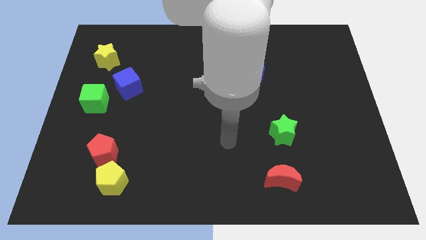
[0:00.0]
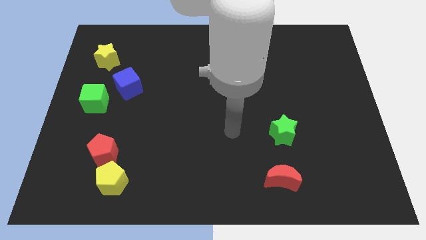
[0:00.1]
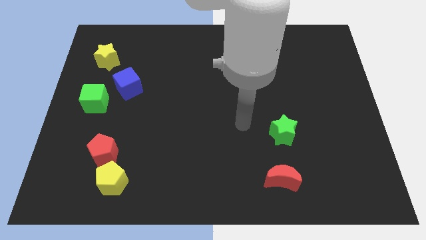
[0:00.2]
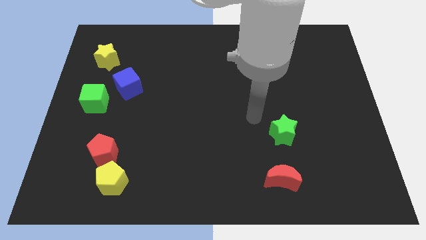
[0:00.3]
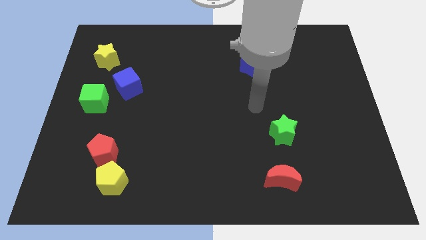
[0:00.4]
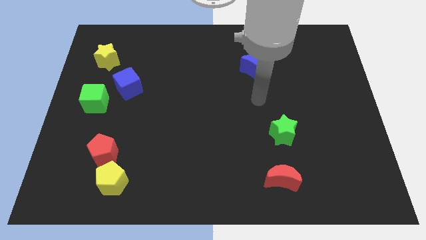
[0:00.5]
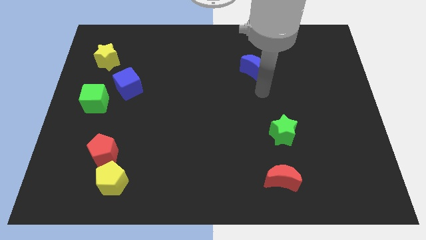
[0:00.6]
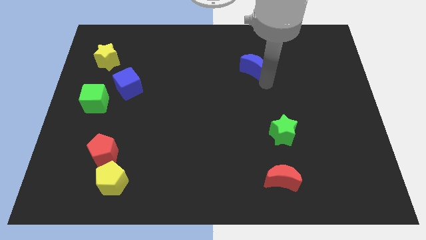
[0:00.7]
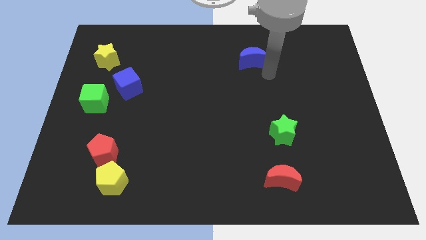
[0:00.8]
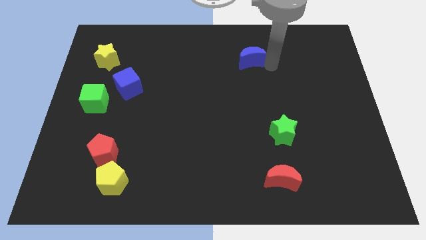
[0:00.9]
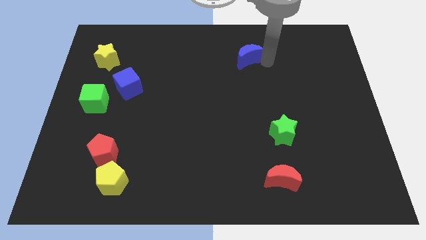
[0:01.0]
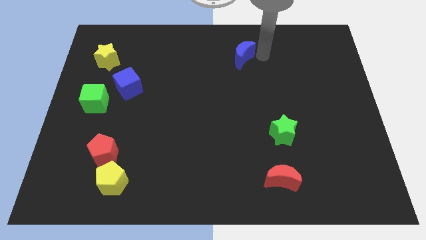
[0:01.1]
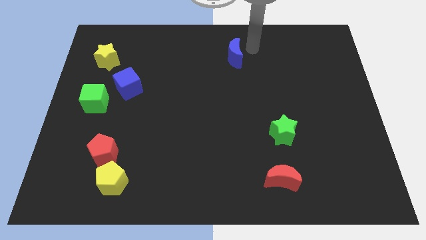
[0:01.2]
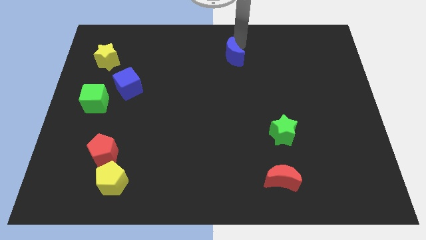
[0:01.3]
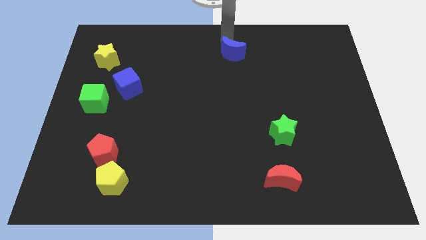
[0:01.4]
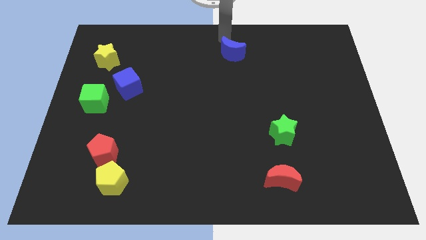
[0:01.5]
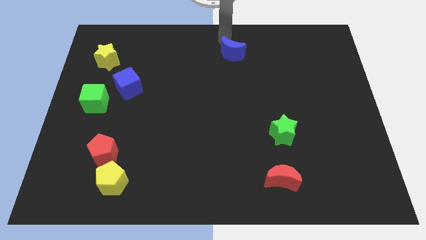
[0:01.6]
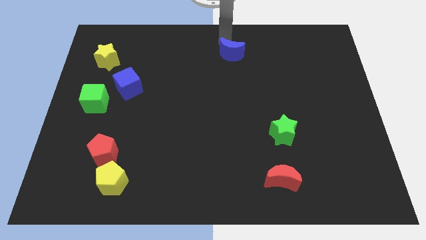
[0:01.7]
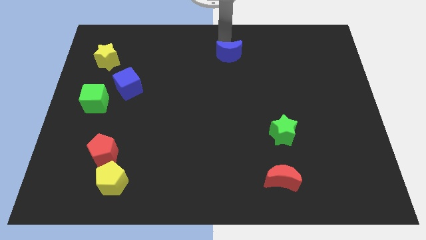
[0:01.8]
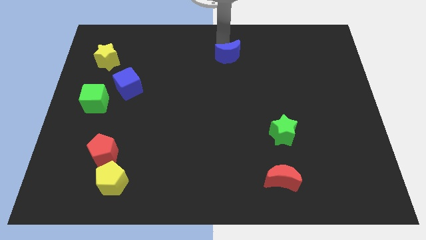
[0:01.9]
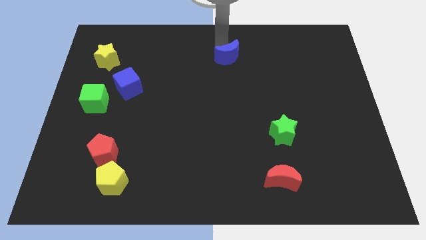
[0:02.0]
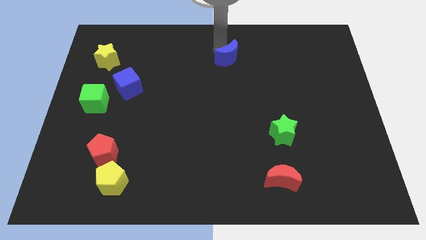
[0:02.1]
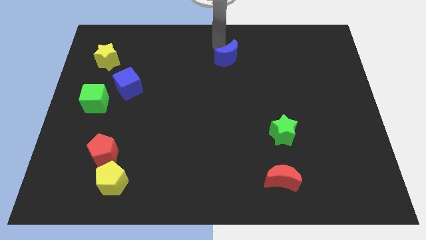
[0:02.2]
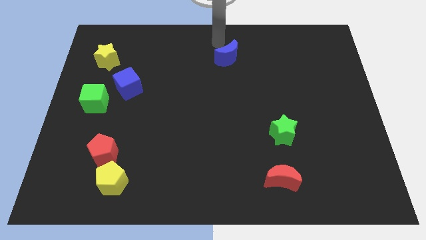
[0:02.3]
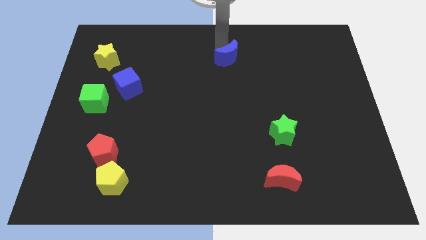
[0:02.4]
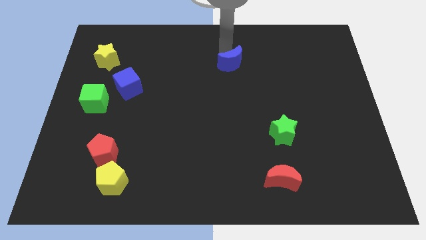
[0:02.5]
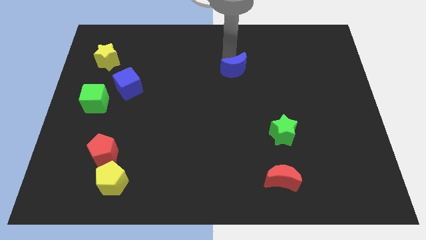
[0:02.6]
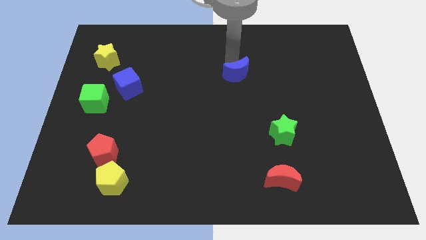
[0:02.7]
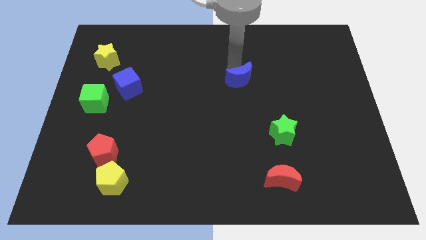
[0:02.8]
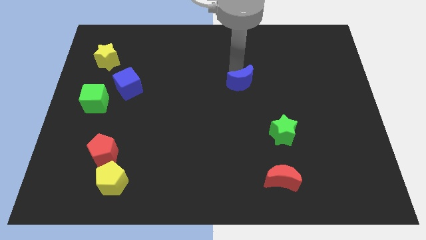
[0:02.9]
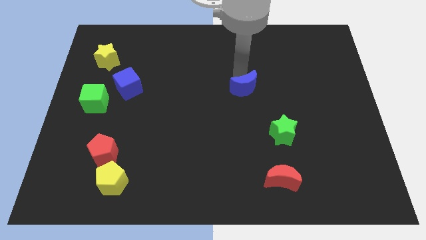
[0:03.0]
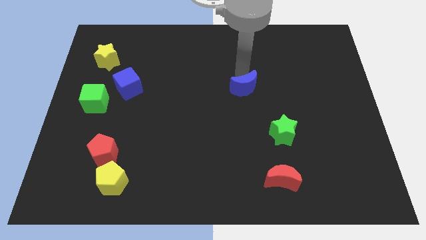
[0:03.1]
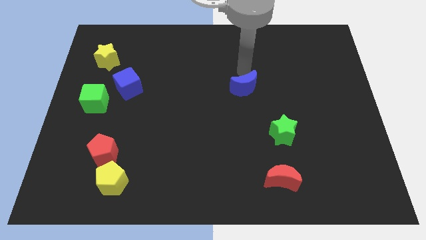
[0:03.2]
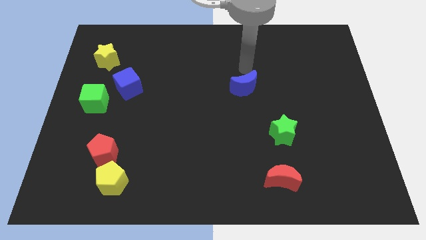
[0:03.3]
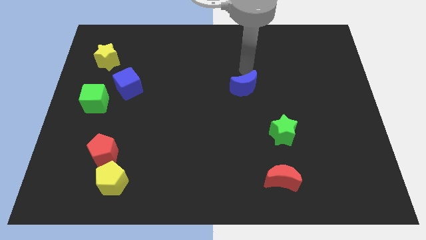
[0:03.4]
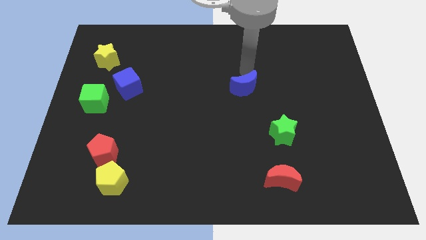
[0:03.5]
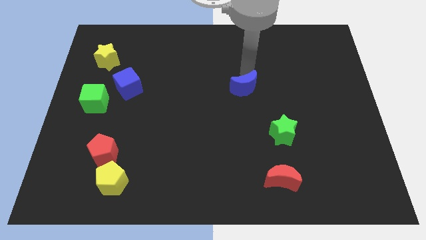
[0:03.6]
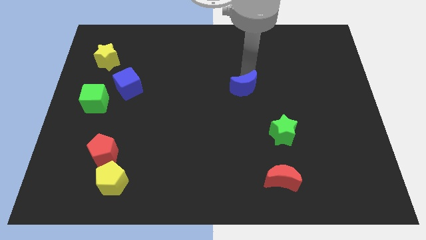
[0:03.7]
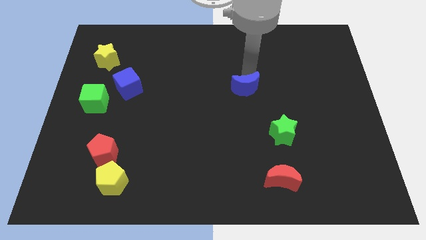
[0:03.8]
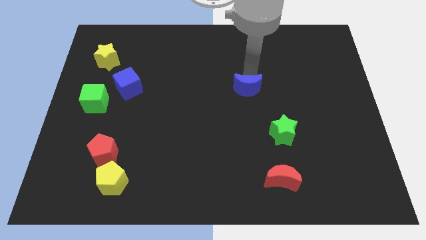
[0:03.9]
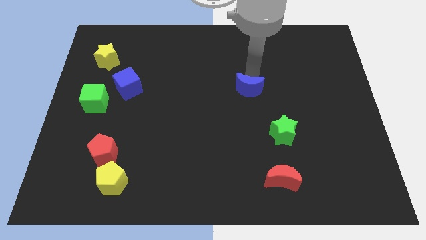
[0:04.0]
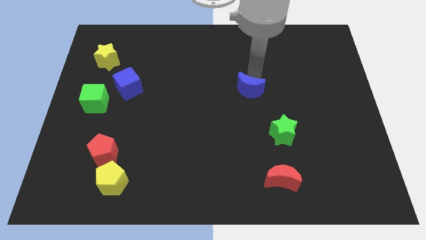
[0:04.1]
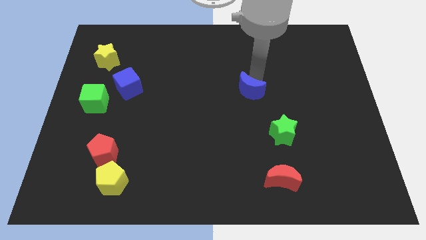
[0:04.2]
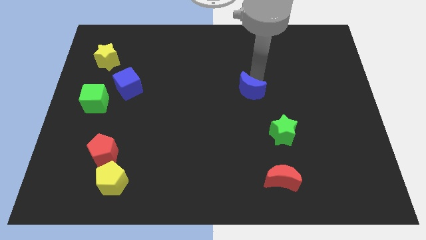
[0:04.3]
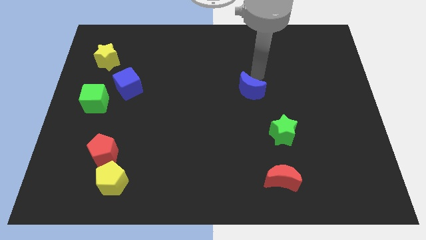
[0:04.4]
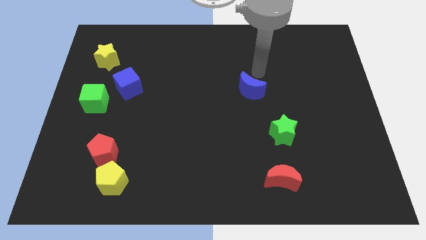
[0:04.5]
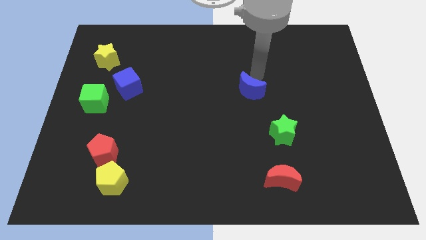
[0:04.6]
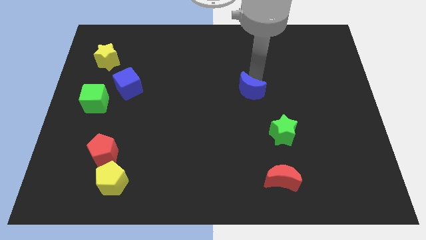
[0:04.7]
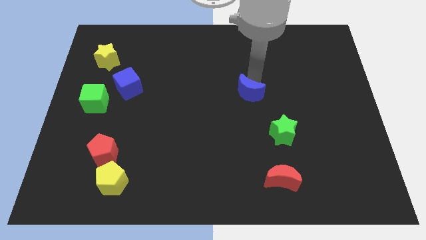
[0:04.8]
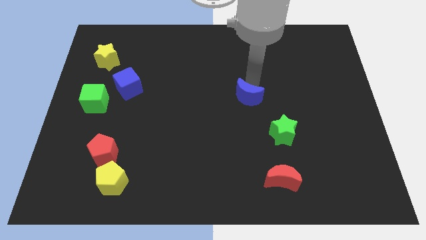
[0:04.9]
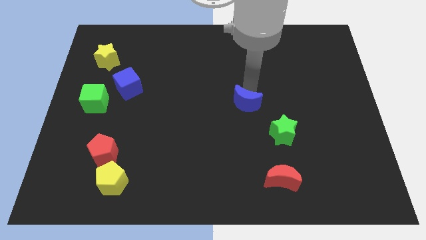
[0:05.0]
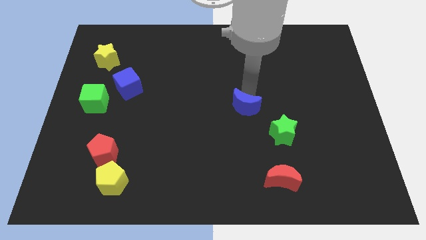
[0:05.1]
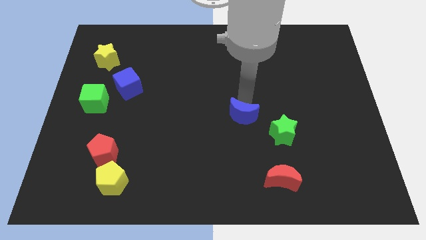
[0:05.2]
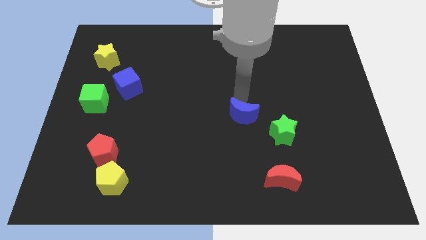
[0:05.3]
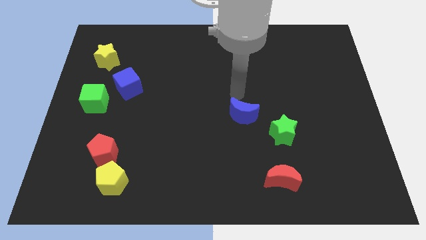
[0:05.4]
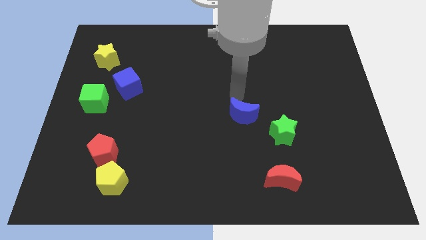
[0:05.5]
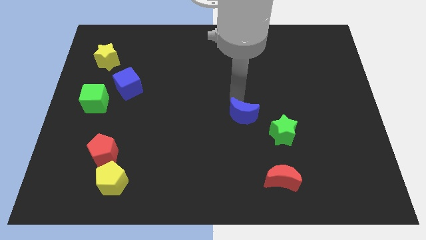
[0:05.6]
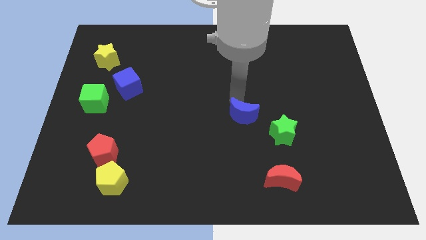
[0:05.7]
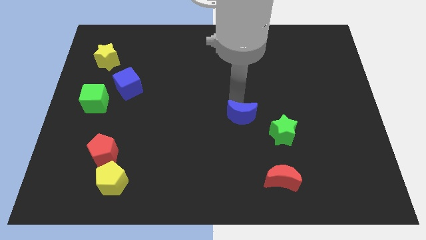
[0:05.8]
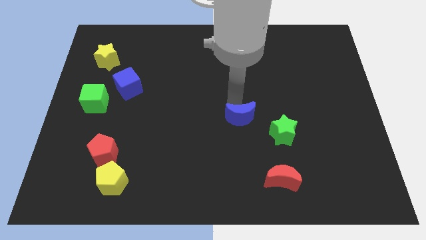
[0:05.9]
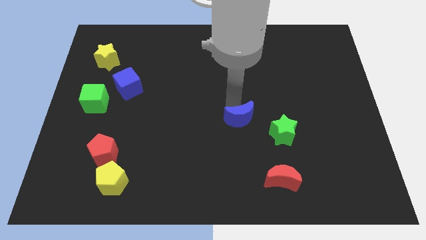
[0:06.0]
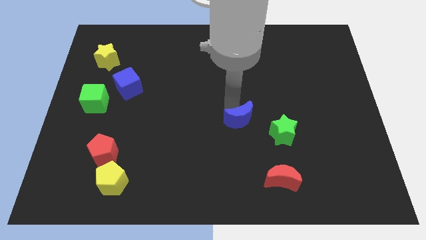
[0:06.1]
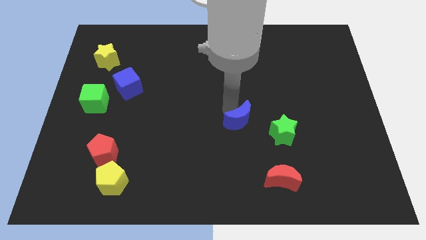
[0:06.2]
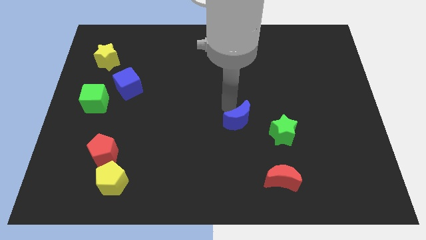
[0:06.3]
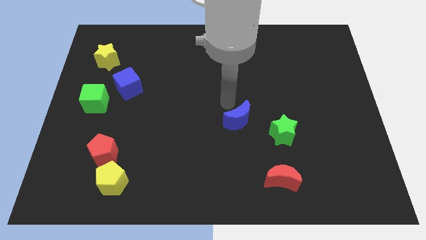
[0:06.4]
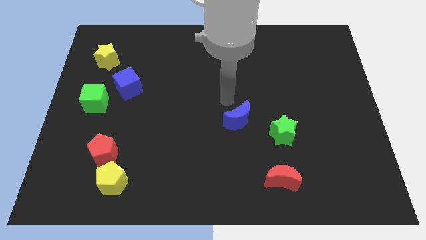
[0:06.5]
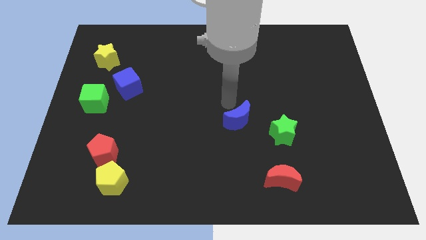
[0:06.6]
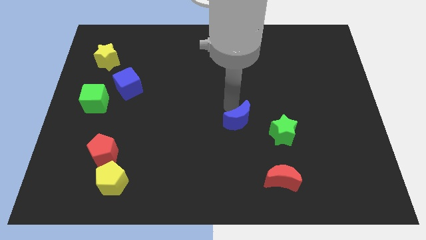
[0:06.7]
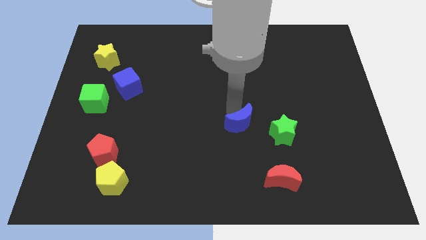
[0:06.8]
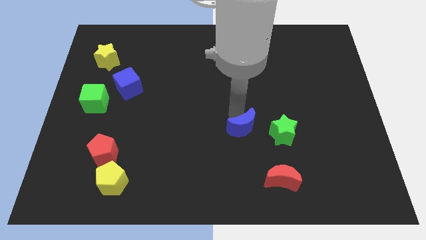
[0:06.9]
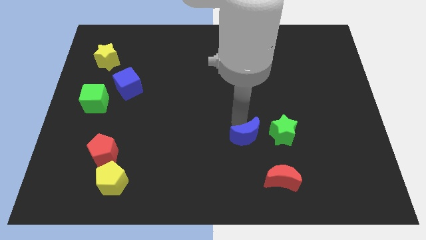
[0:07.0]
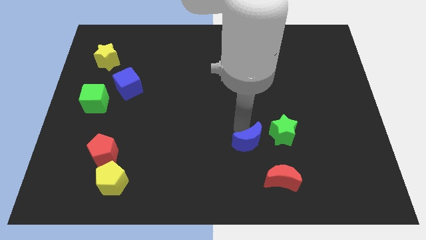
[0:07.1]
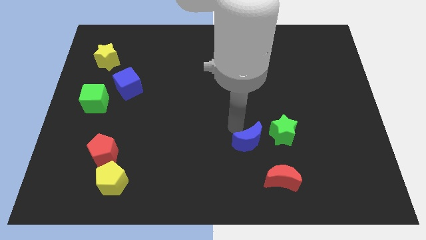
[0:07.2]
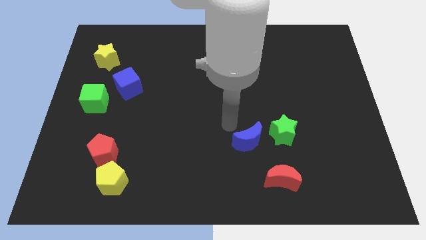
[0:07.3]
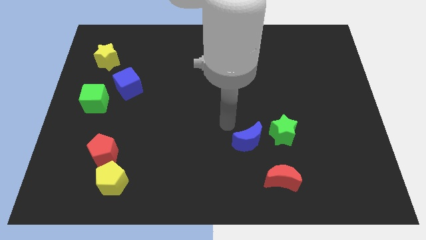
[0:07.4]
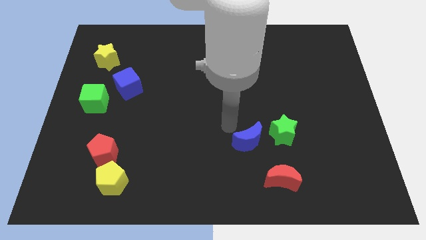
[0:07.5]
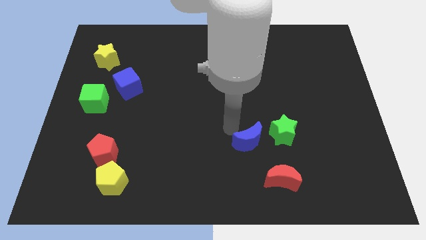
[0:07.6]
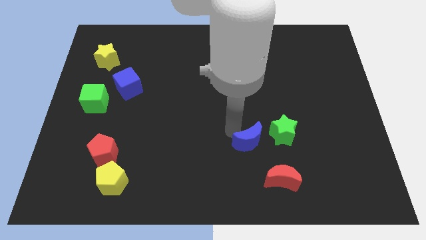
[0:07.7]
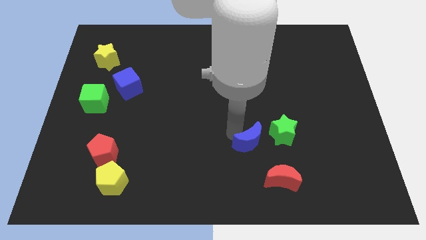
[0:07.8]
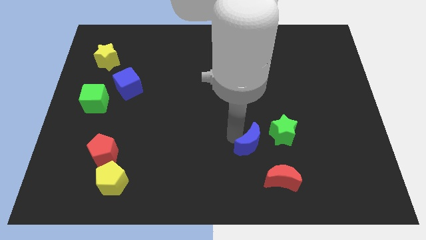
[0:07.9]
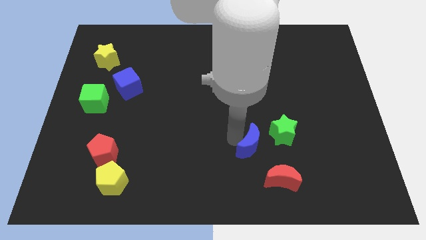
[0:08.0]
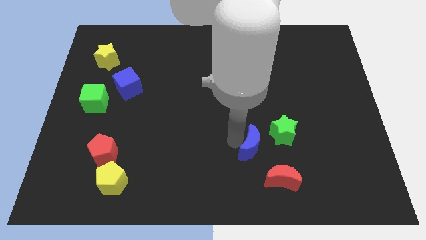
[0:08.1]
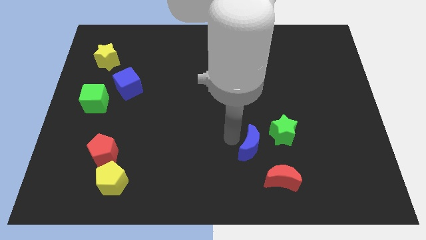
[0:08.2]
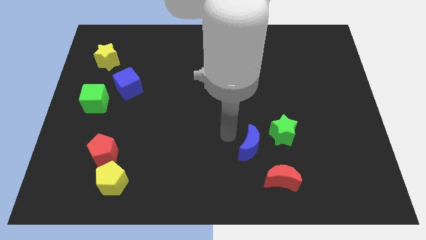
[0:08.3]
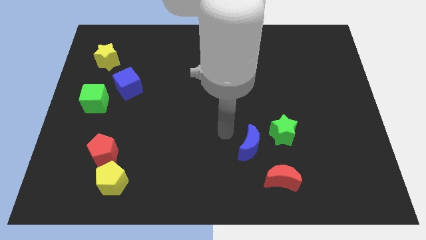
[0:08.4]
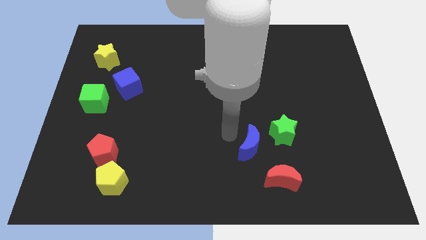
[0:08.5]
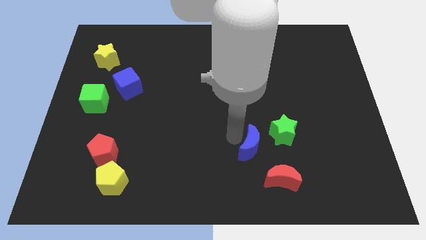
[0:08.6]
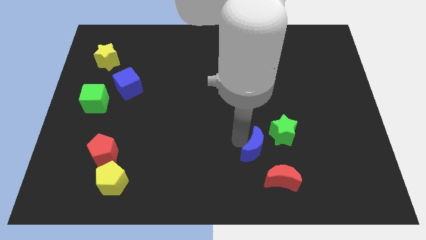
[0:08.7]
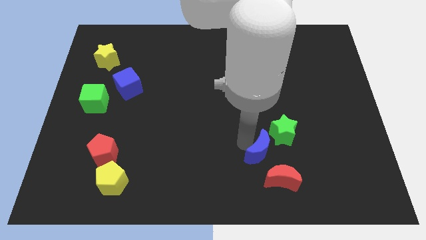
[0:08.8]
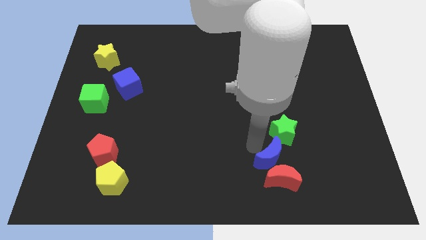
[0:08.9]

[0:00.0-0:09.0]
put the blue moon to the red moon
